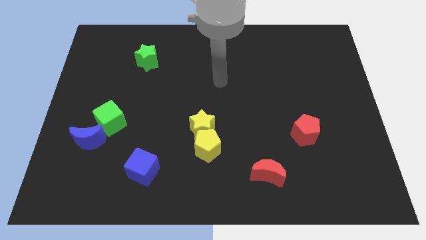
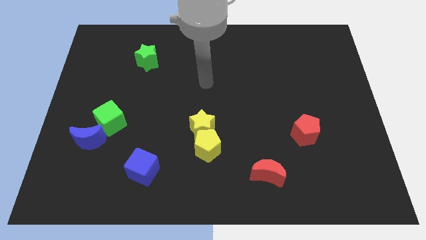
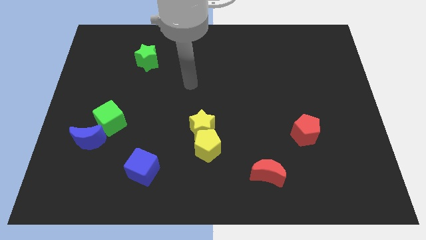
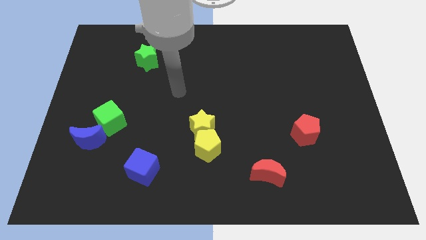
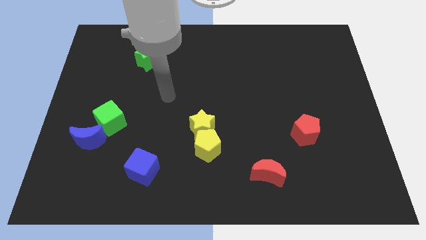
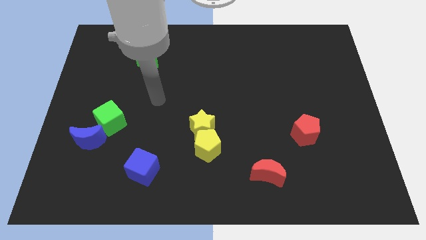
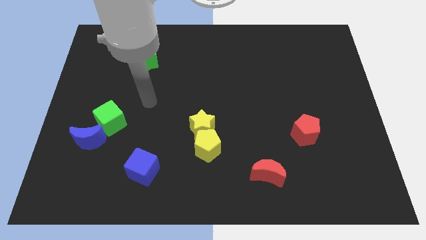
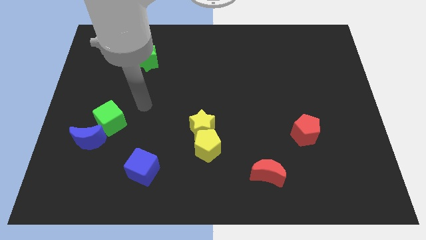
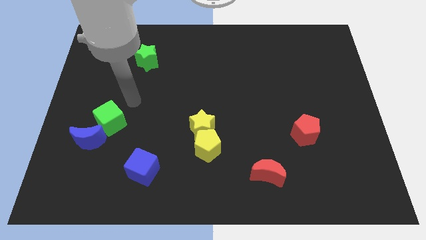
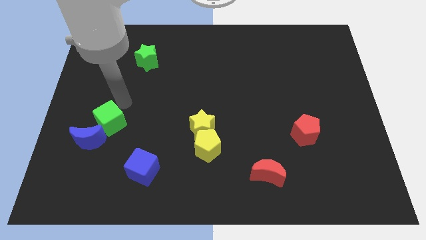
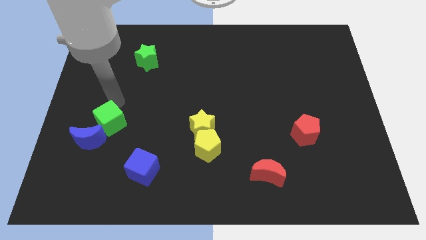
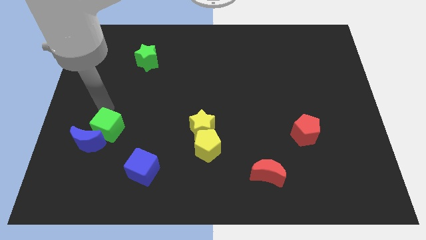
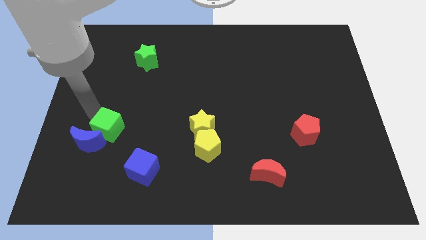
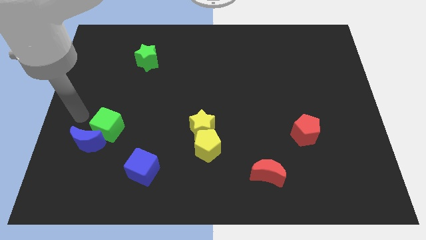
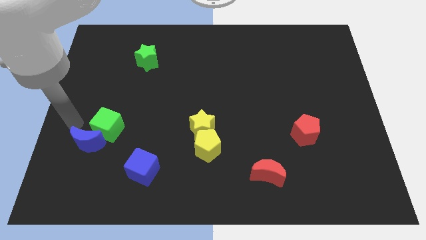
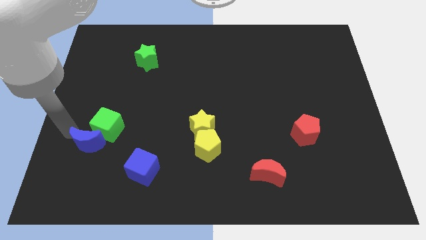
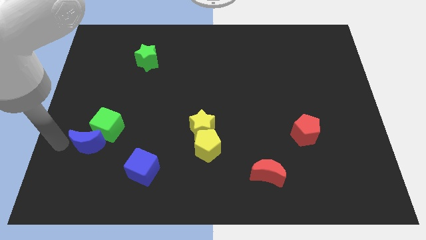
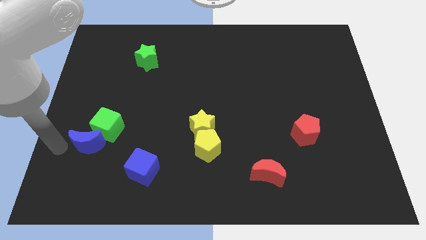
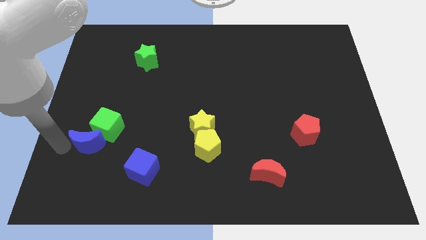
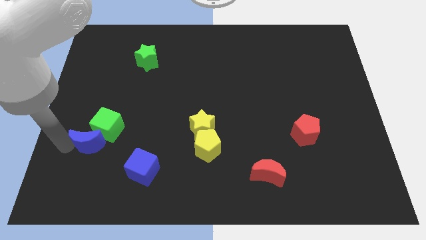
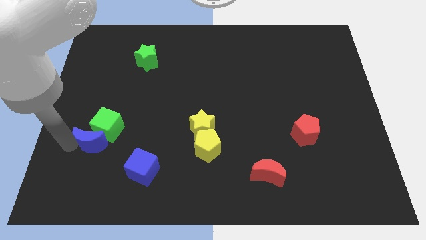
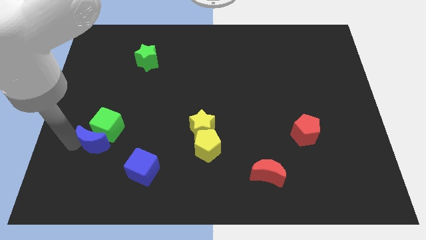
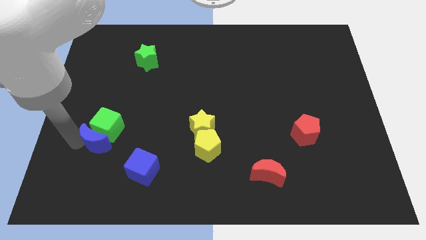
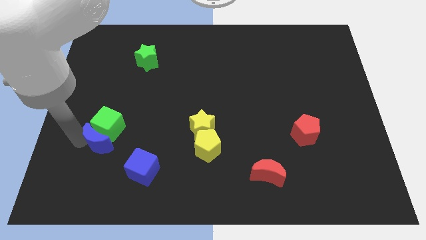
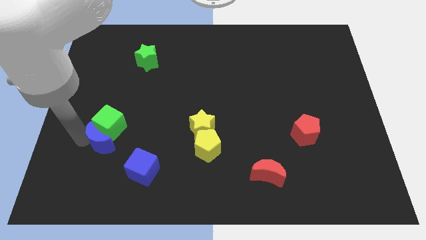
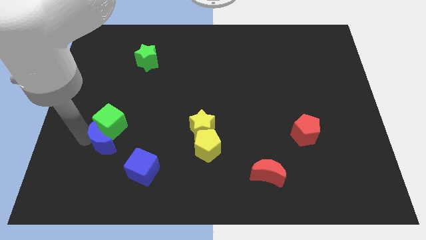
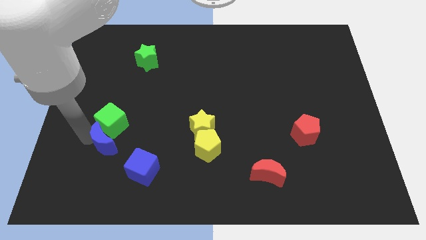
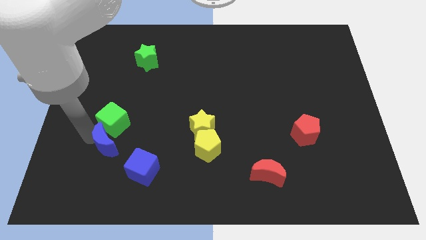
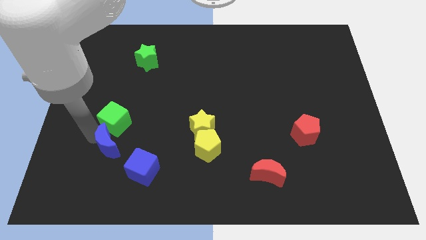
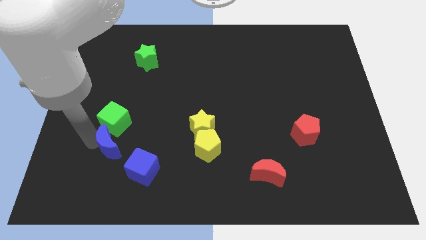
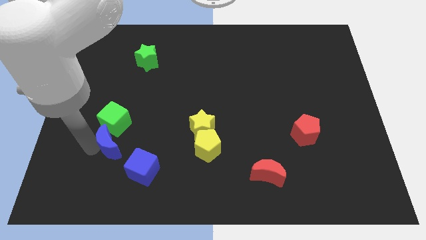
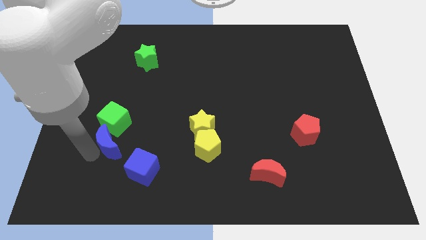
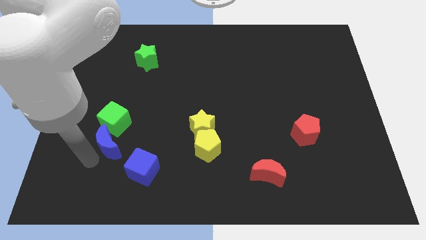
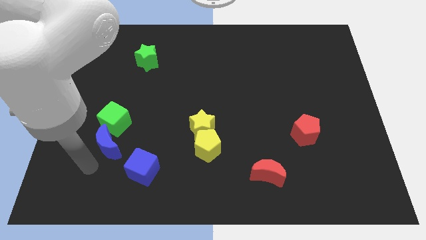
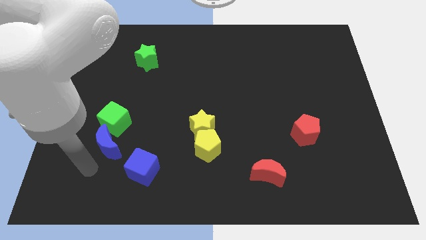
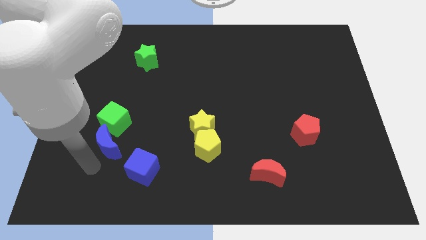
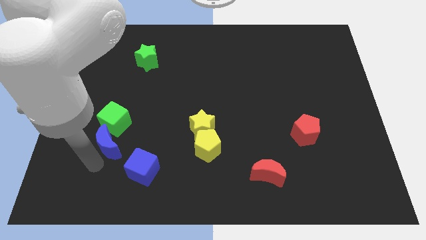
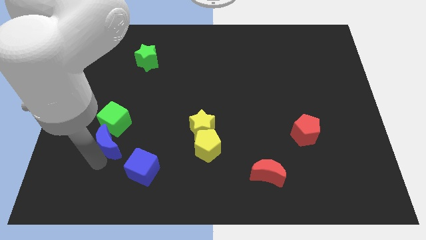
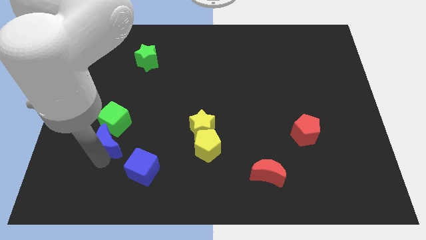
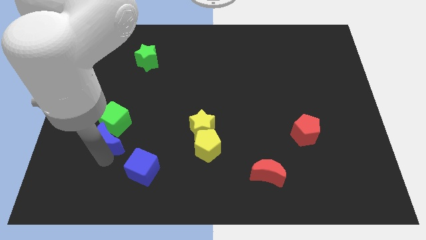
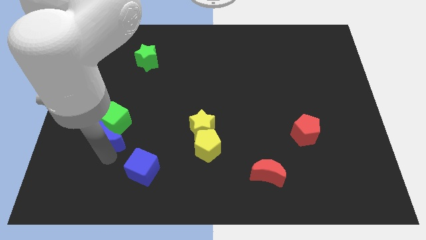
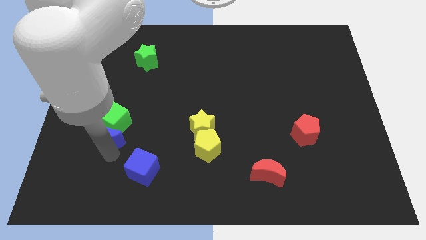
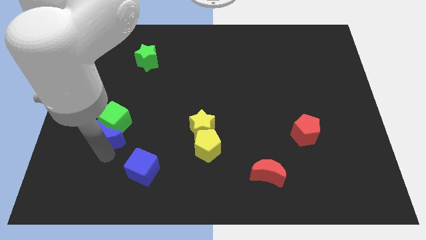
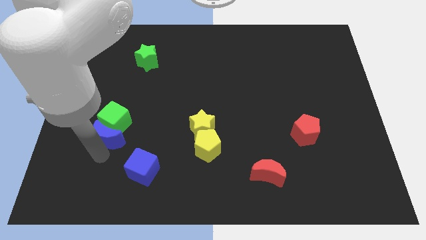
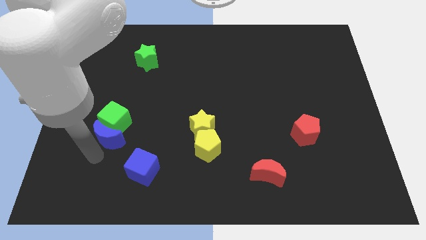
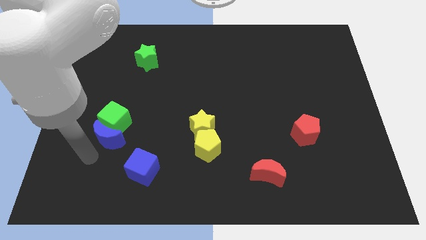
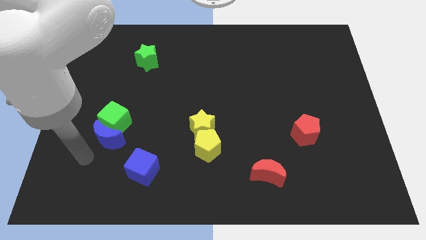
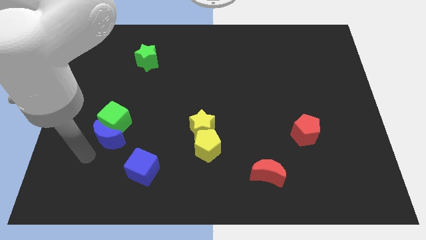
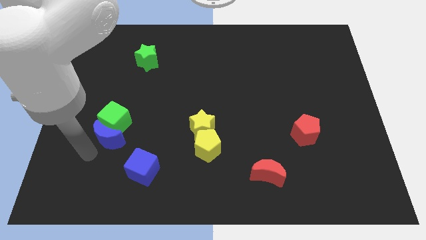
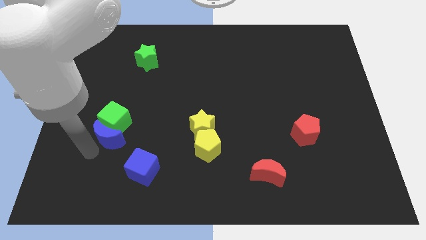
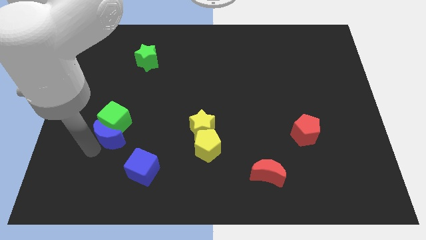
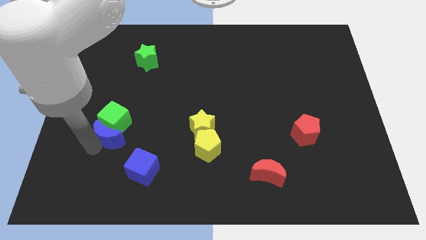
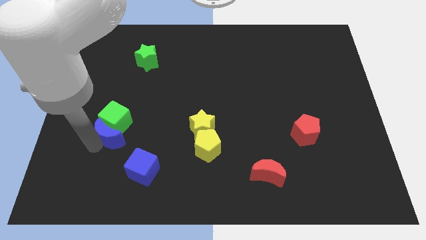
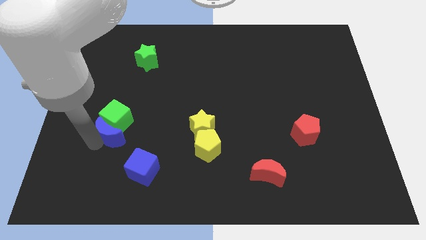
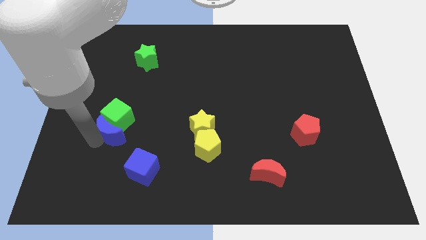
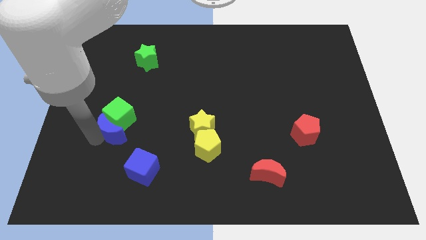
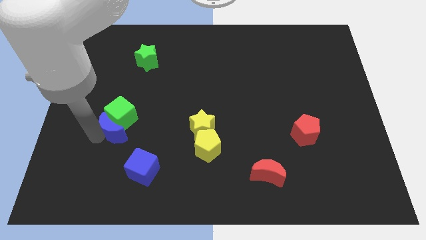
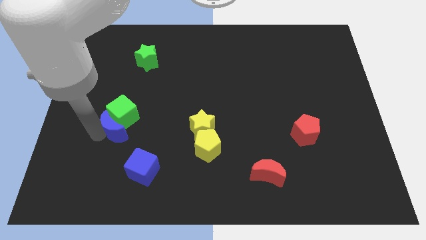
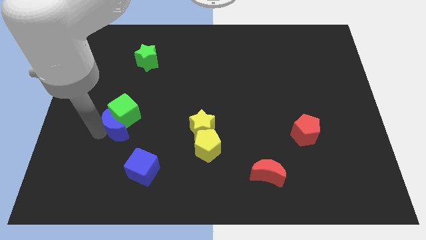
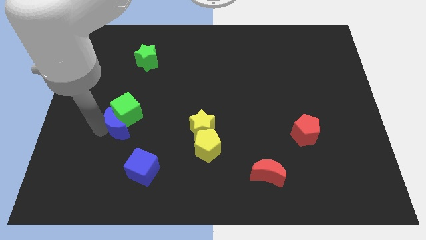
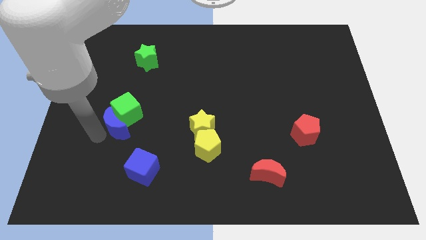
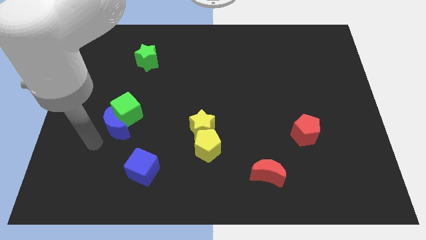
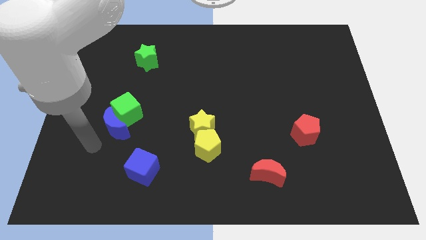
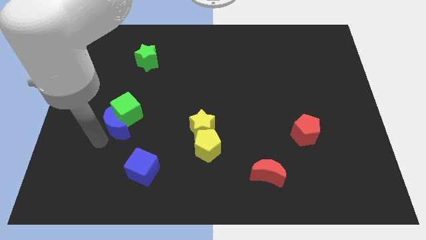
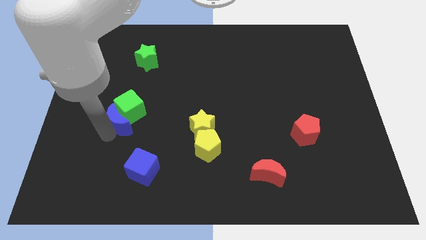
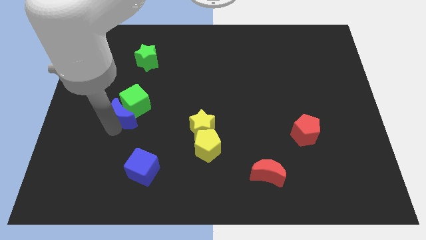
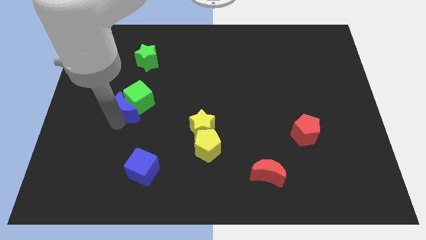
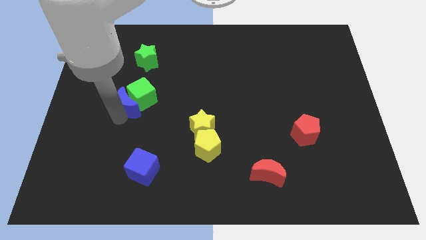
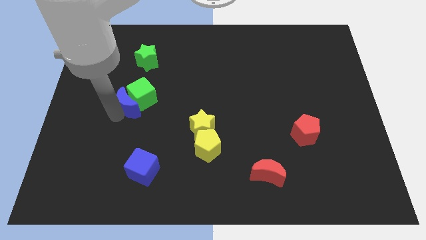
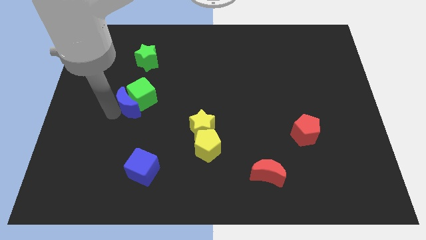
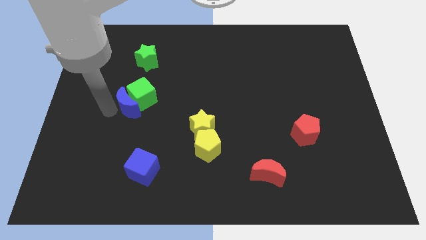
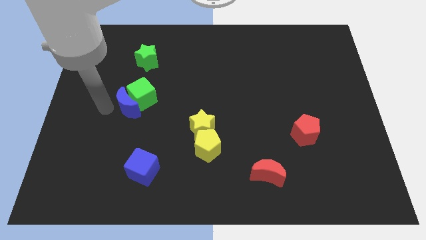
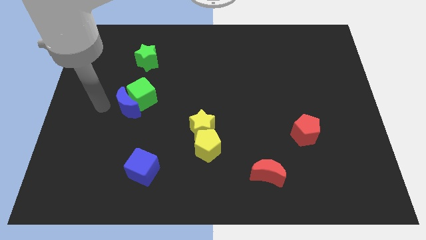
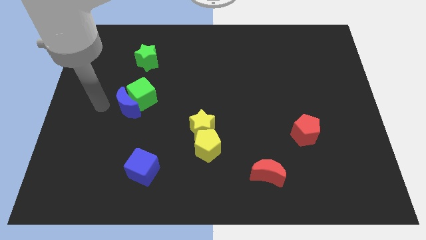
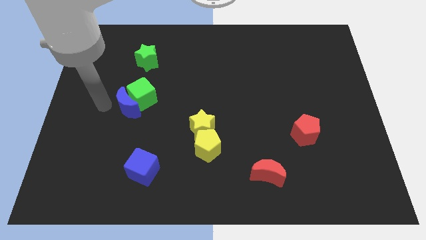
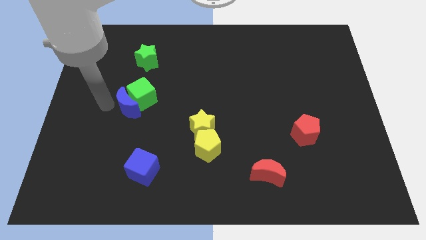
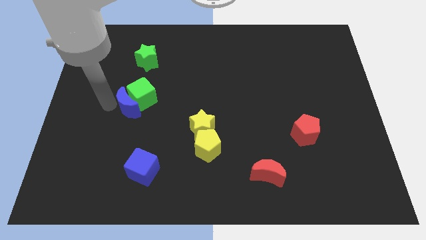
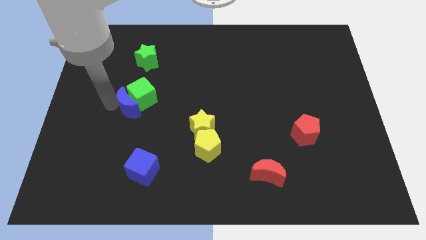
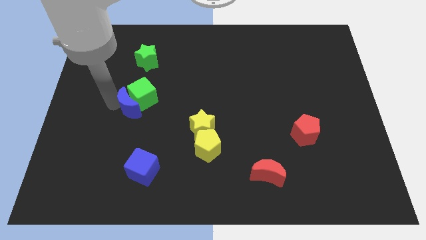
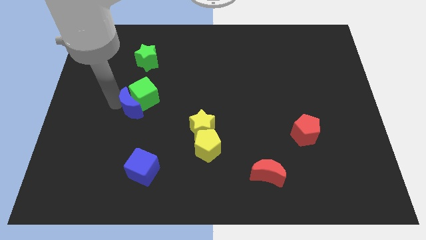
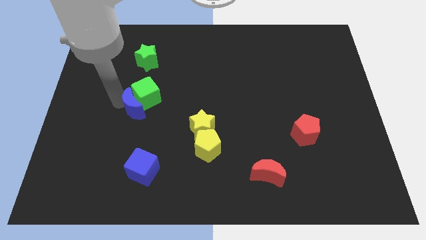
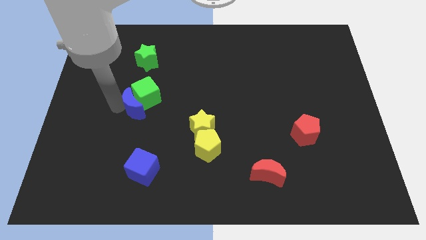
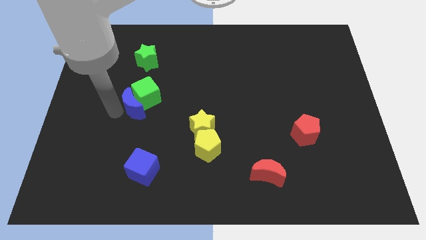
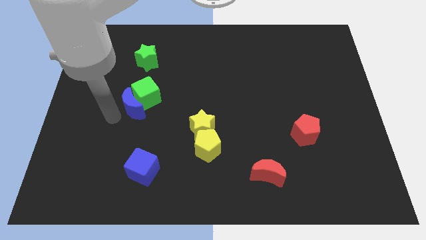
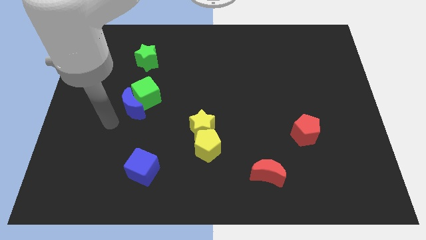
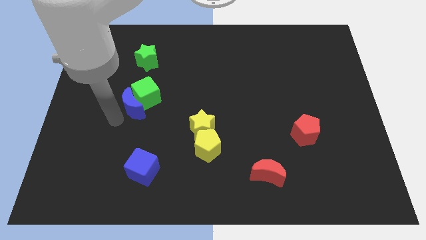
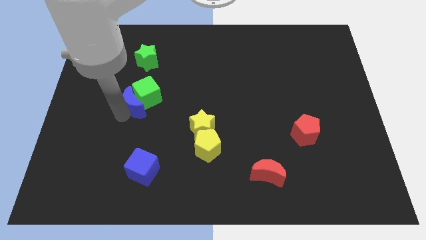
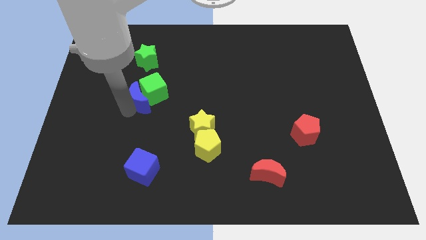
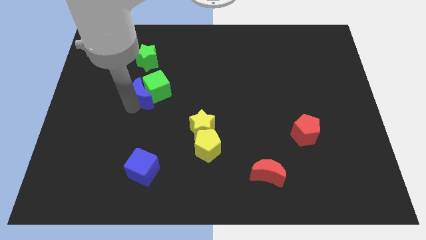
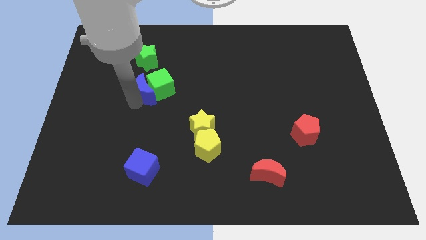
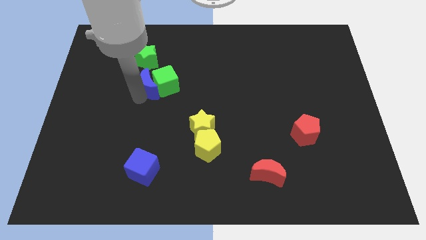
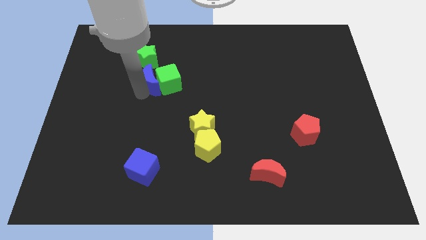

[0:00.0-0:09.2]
move the blue moon upwards and to the right diagonally
